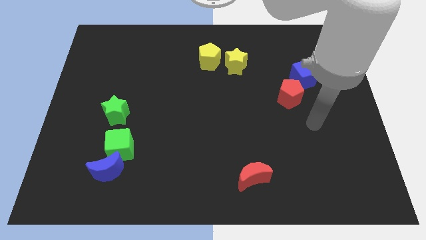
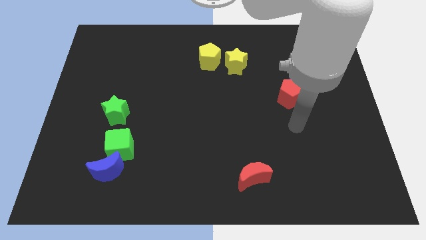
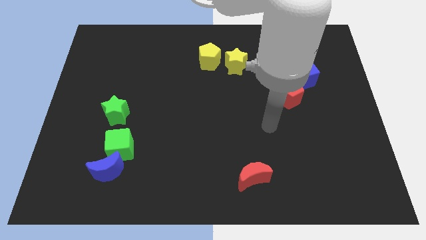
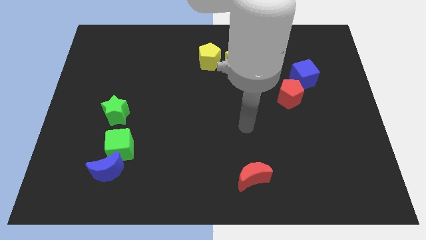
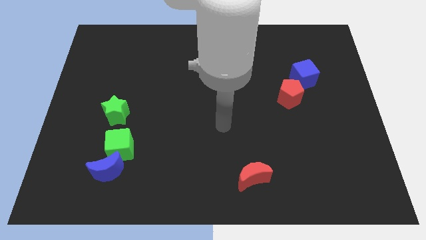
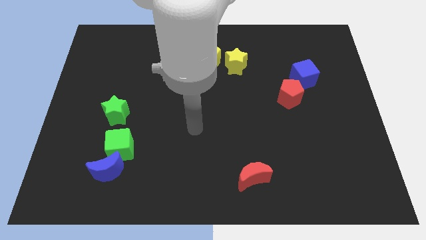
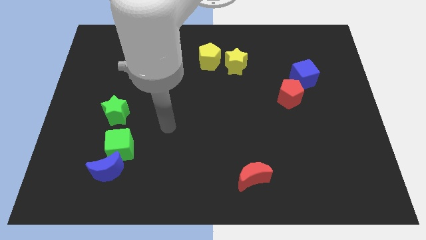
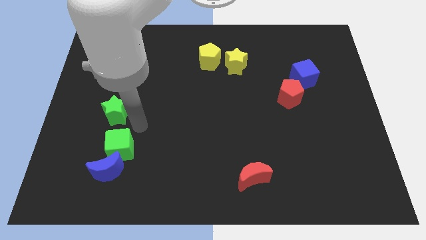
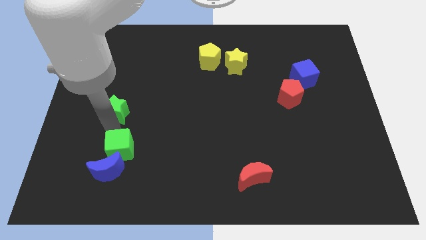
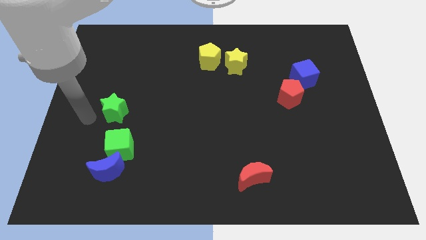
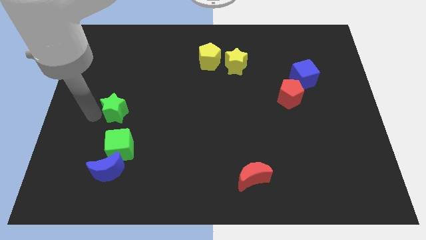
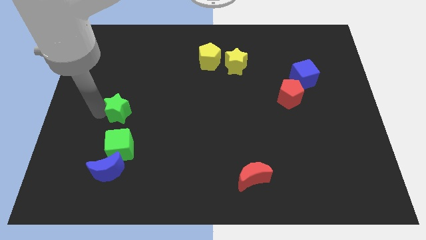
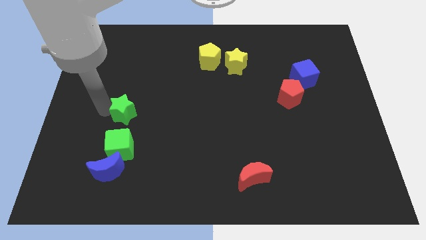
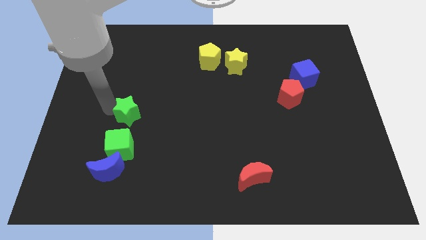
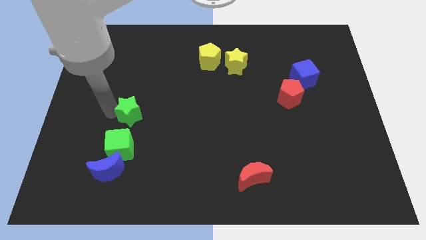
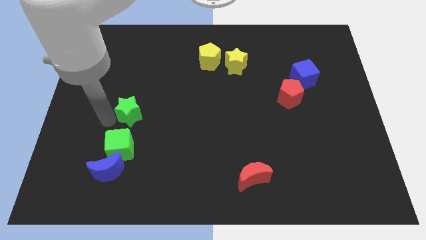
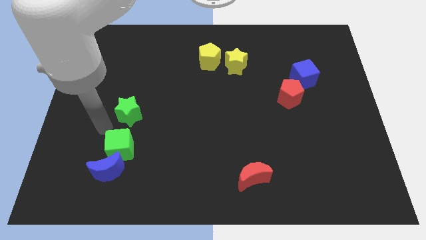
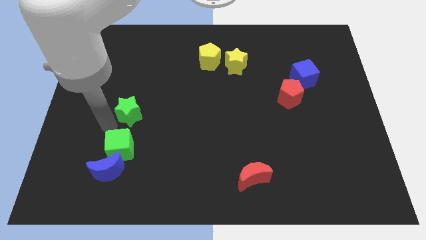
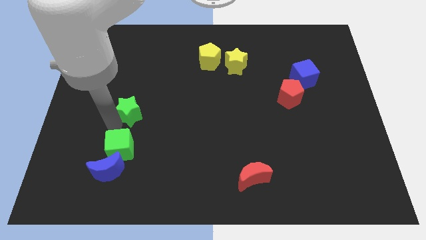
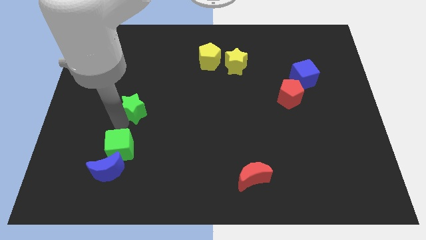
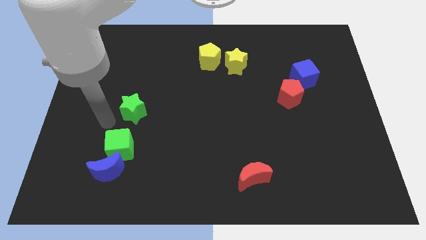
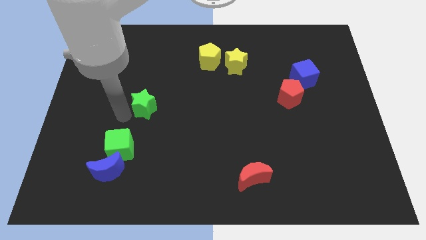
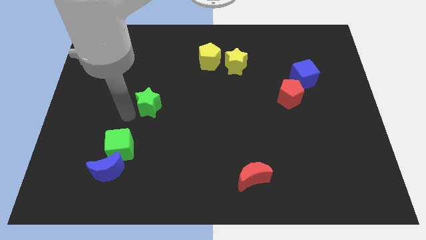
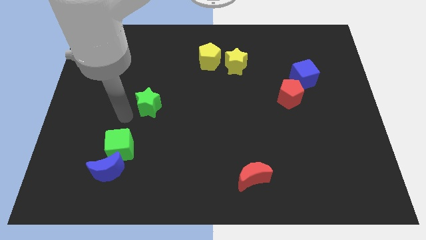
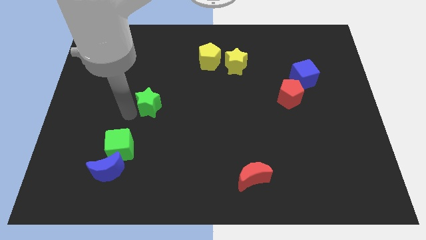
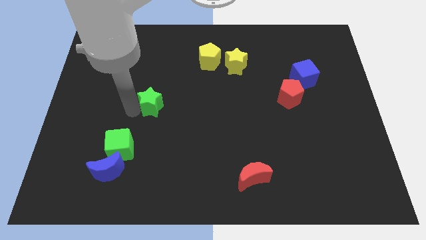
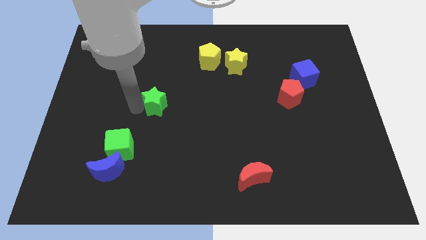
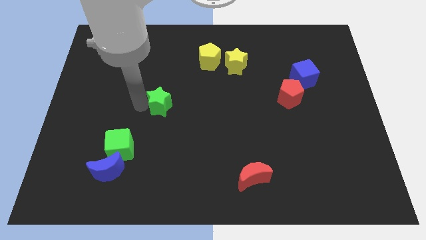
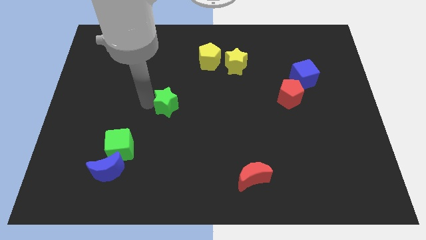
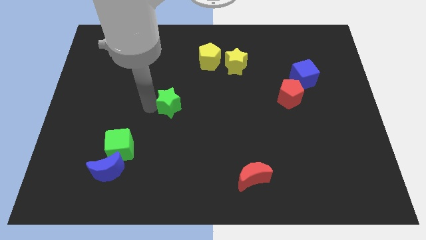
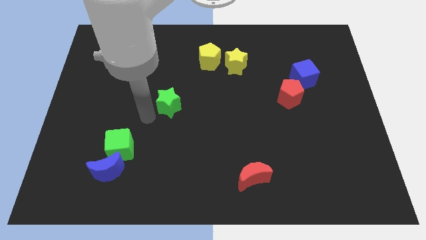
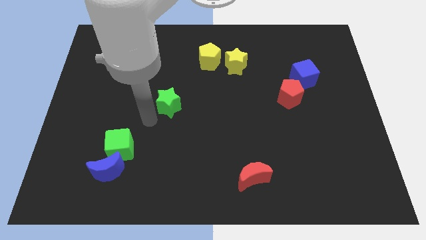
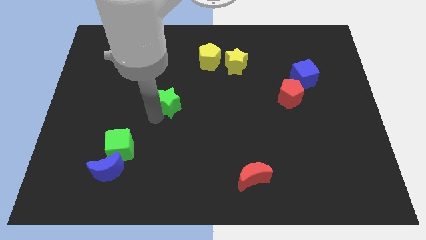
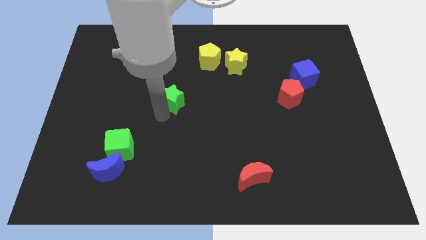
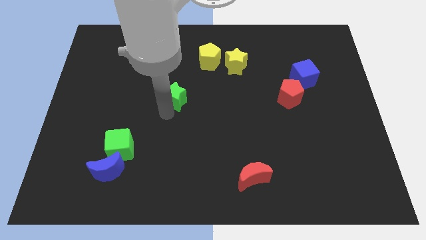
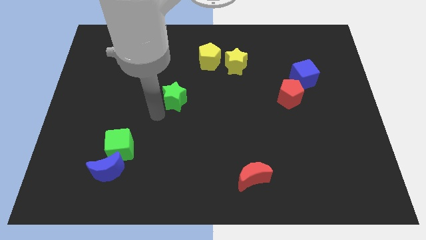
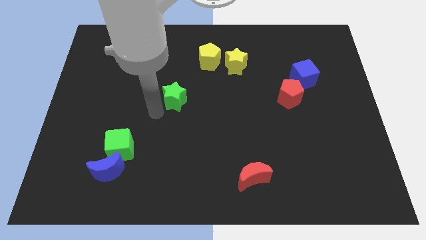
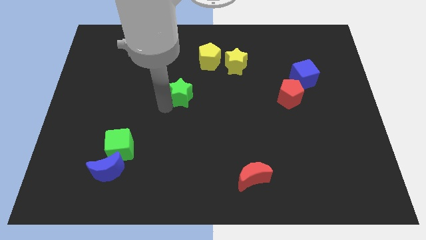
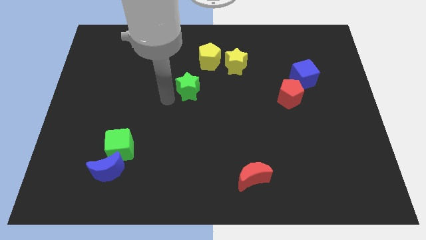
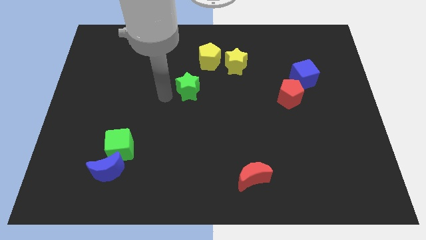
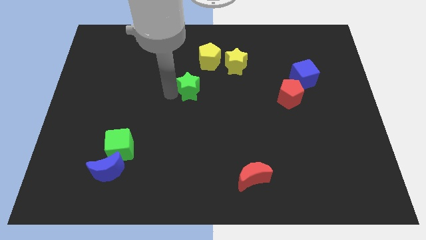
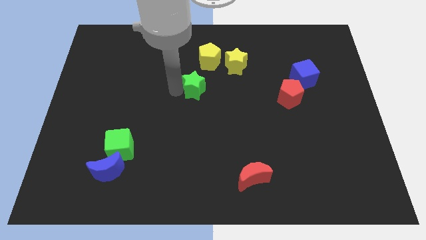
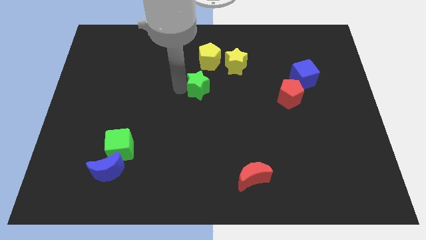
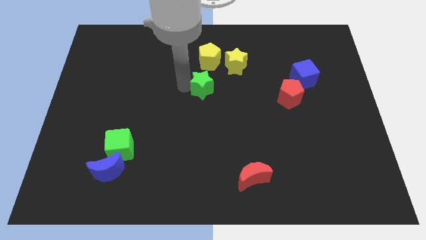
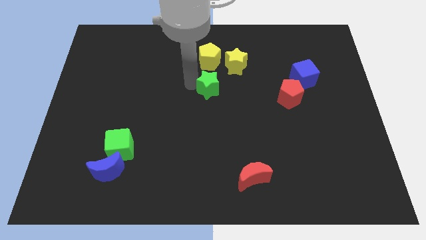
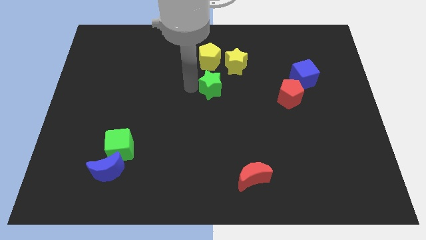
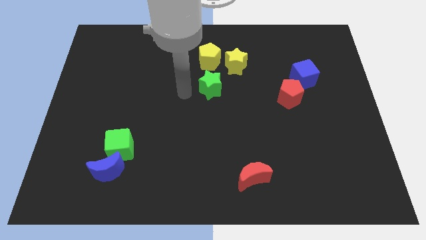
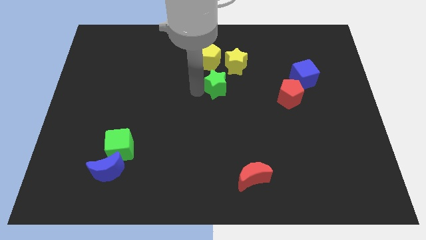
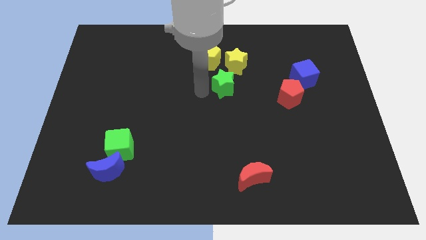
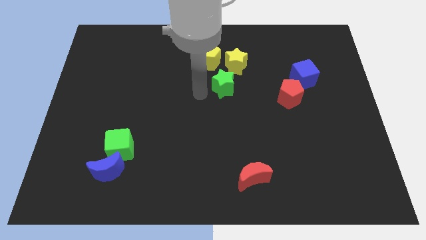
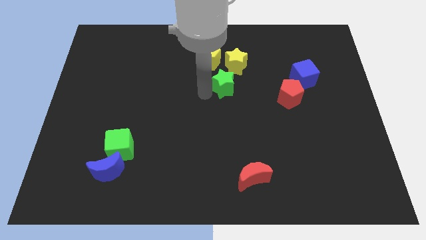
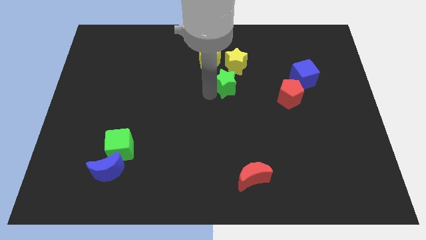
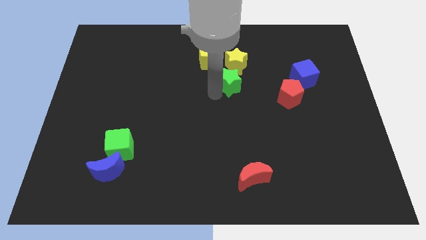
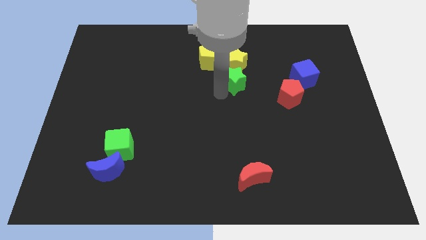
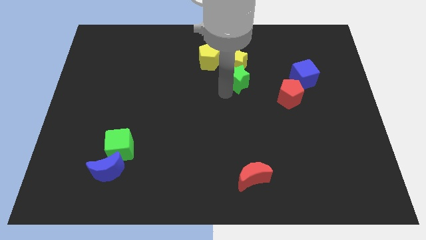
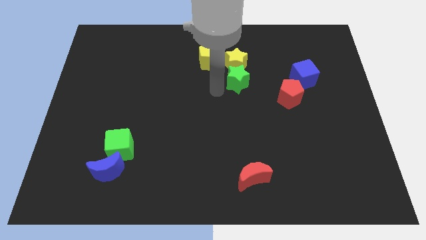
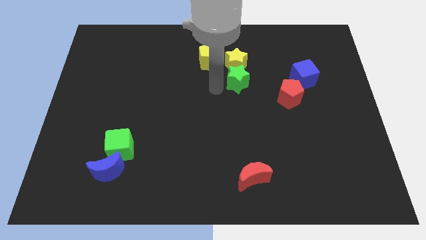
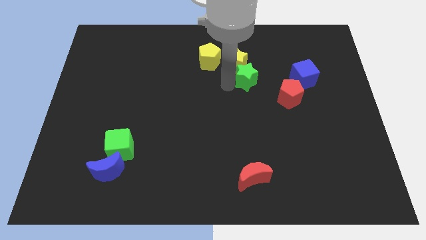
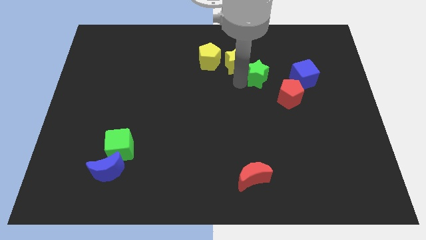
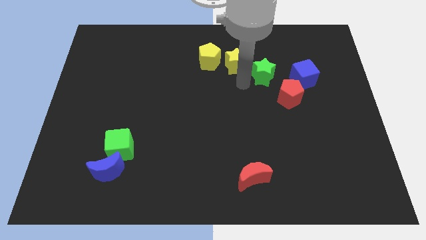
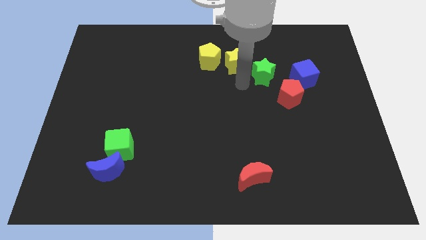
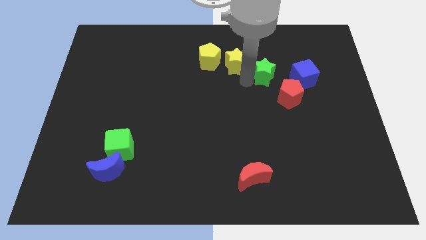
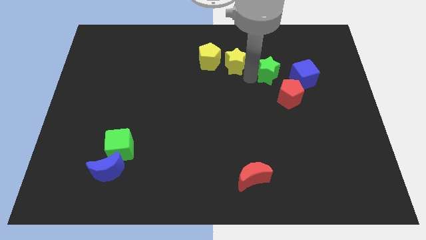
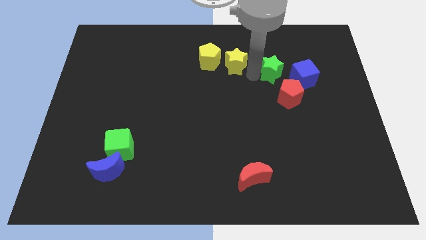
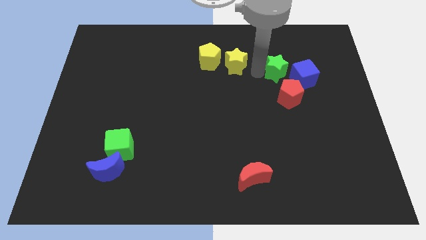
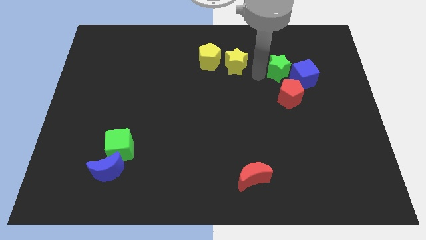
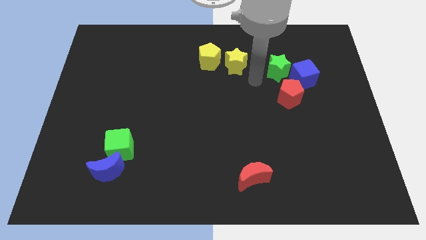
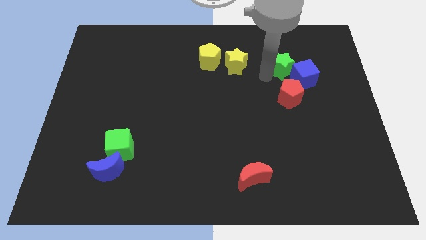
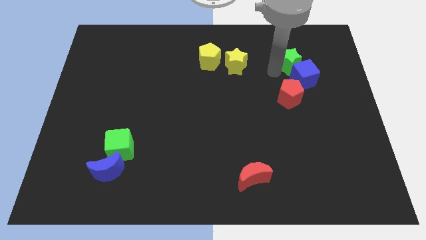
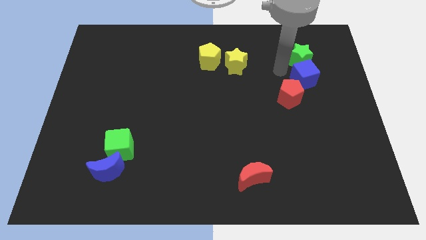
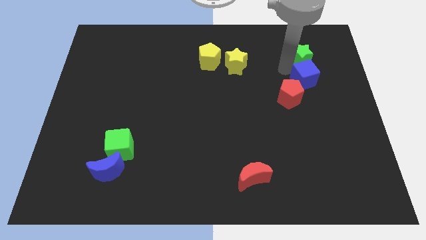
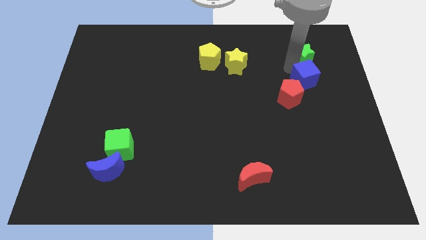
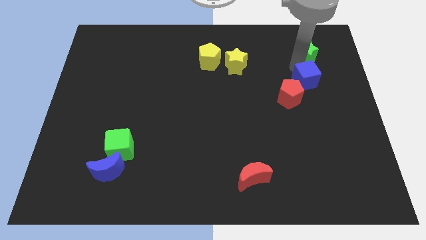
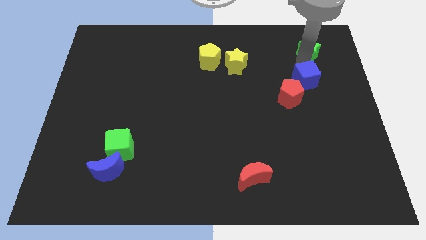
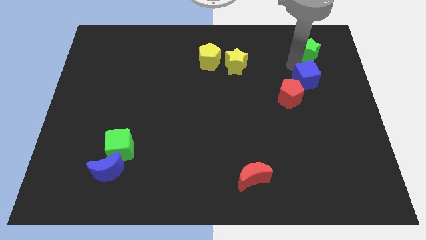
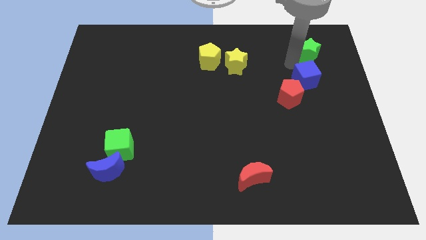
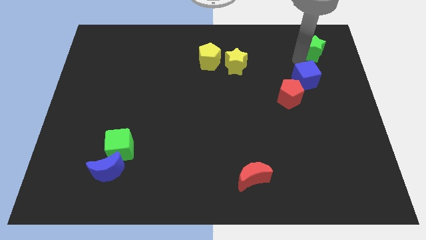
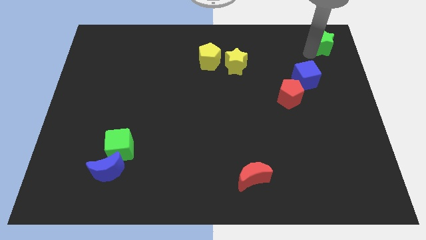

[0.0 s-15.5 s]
move the green star to the top right of the board

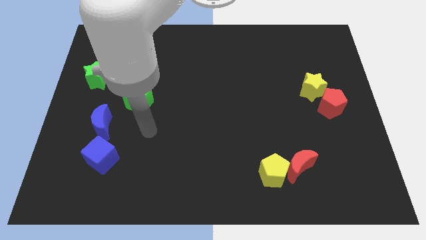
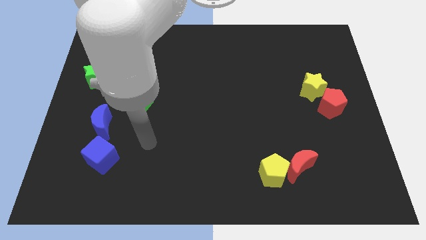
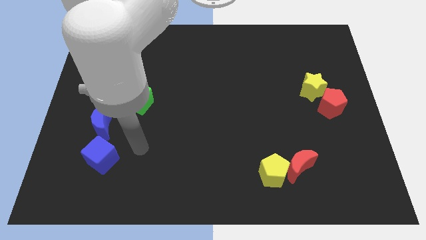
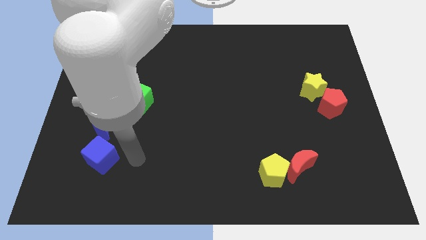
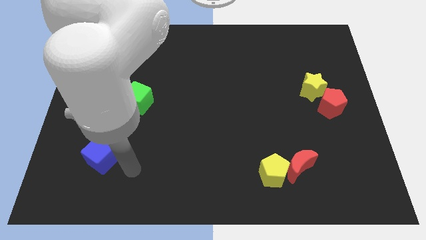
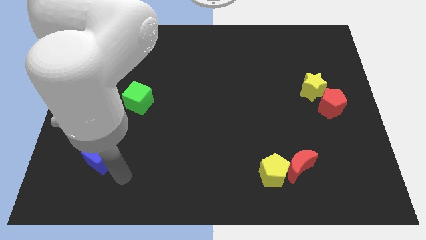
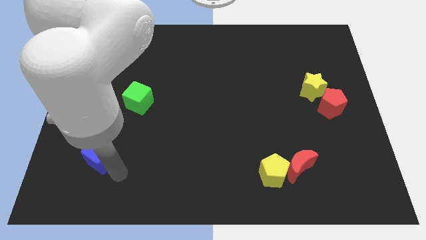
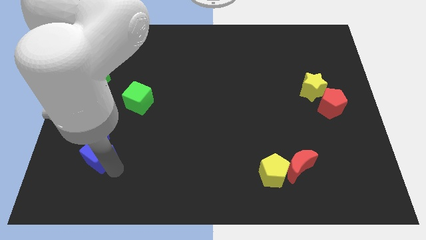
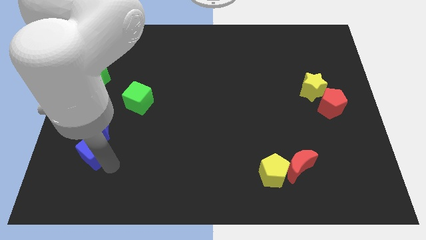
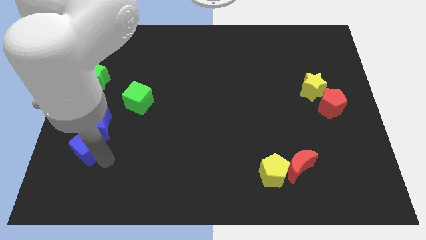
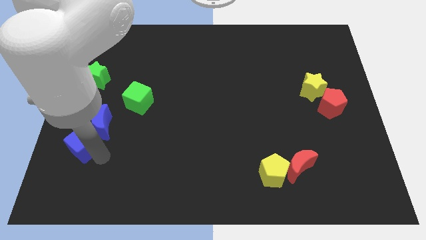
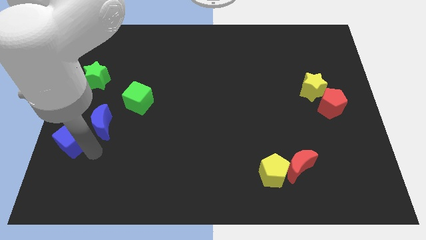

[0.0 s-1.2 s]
move the blue cube to the left side of the board
